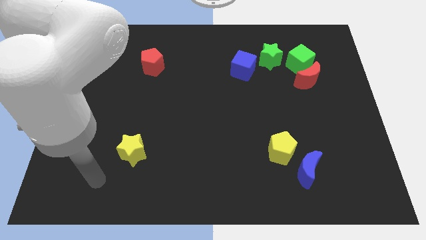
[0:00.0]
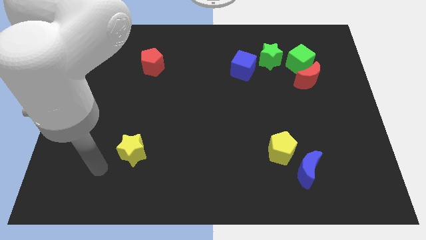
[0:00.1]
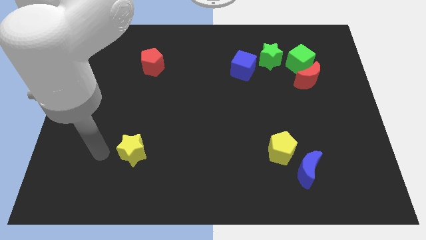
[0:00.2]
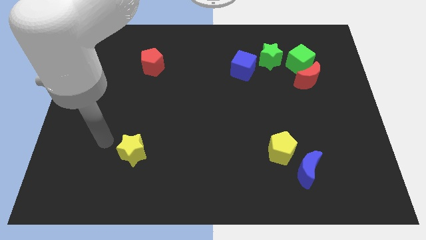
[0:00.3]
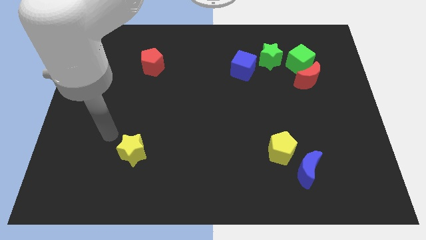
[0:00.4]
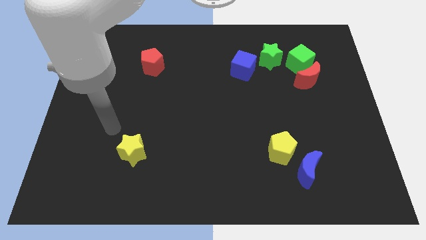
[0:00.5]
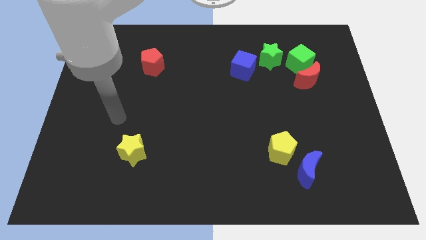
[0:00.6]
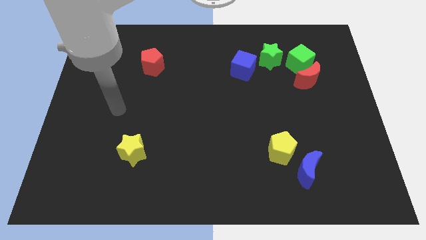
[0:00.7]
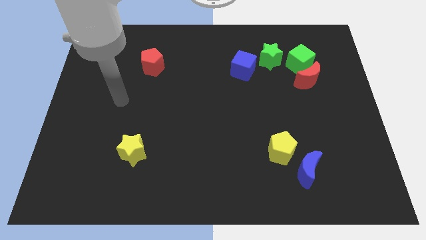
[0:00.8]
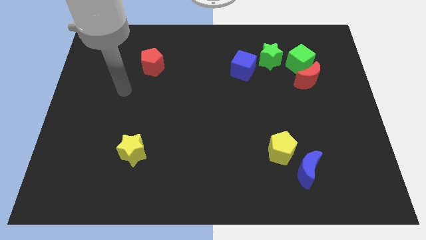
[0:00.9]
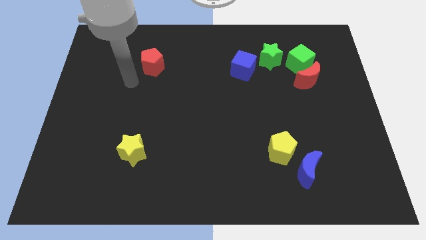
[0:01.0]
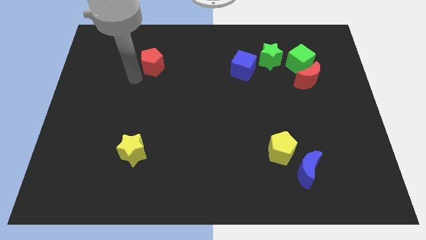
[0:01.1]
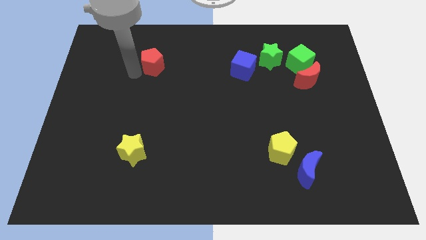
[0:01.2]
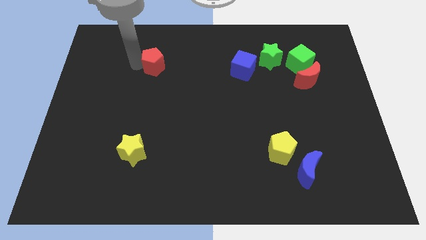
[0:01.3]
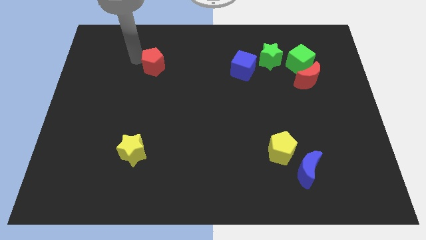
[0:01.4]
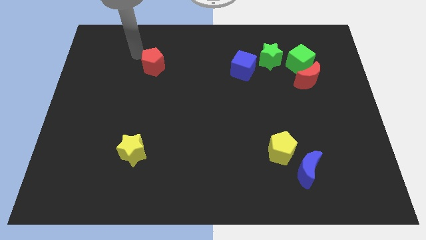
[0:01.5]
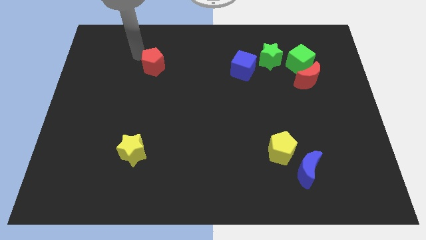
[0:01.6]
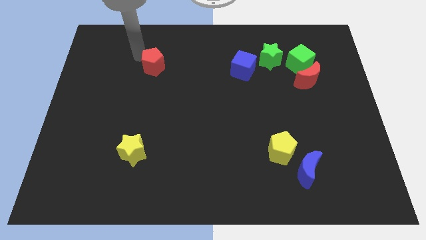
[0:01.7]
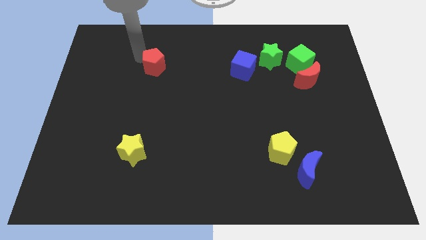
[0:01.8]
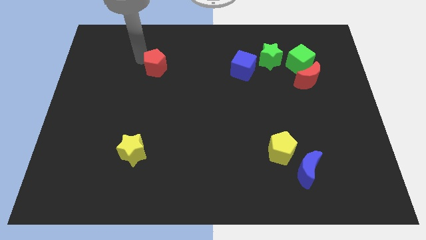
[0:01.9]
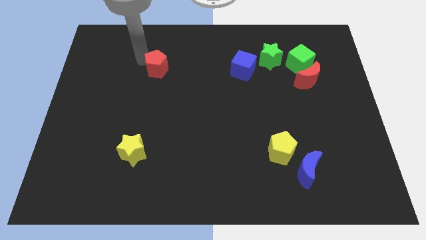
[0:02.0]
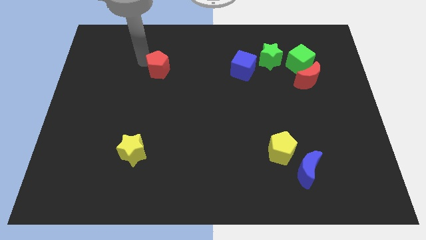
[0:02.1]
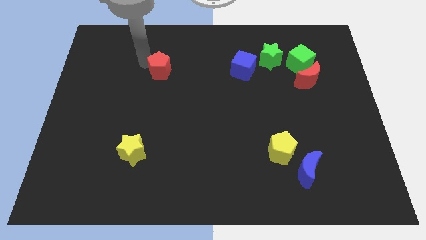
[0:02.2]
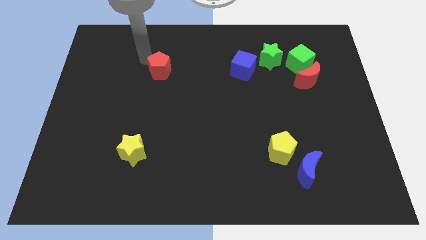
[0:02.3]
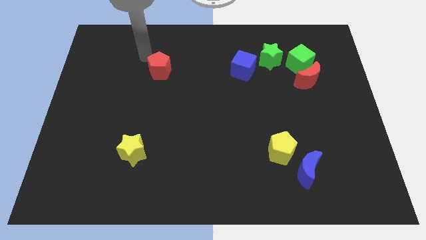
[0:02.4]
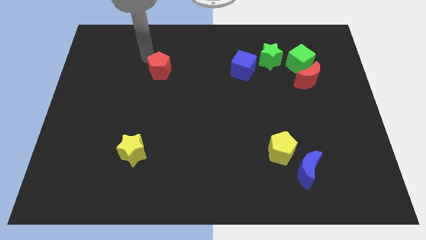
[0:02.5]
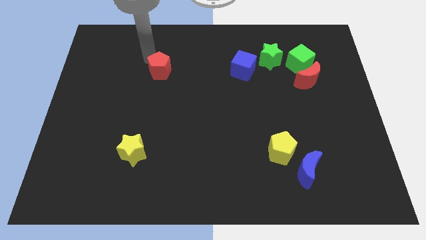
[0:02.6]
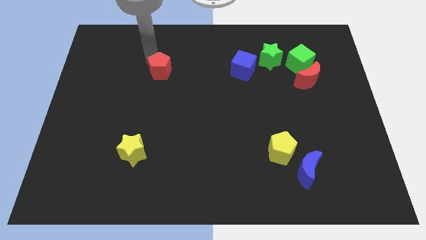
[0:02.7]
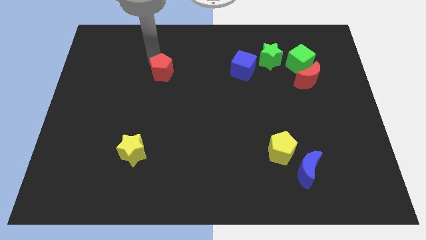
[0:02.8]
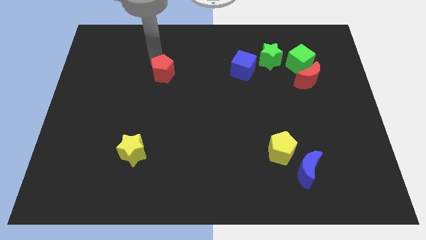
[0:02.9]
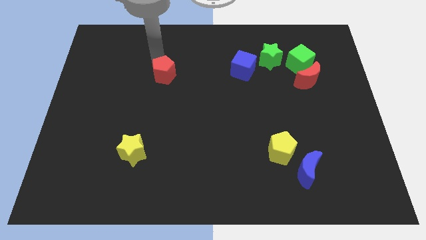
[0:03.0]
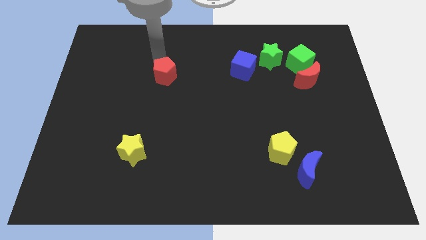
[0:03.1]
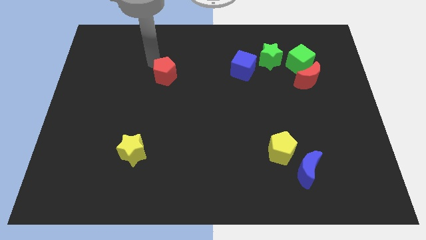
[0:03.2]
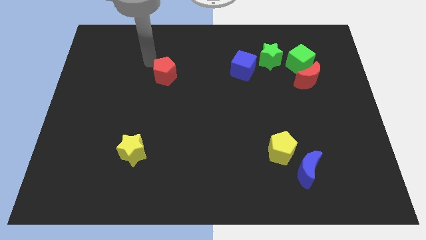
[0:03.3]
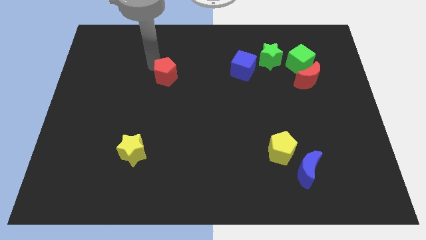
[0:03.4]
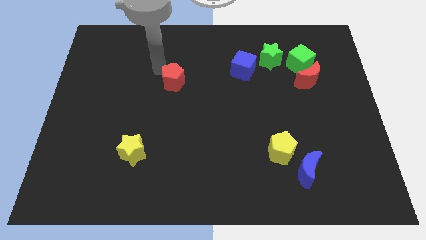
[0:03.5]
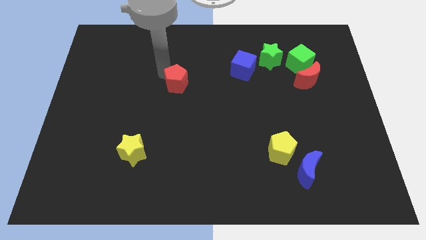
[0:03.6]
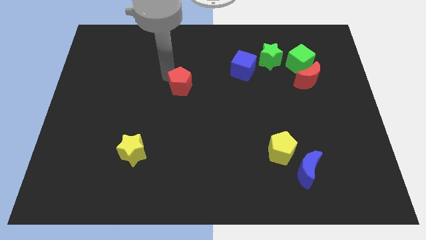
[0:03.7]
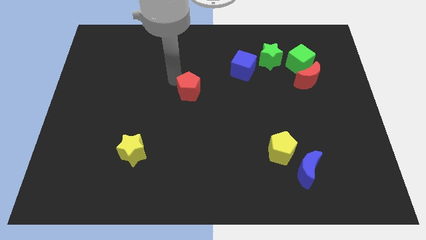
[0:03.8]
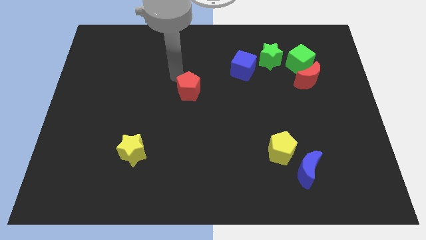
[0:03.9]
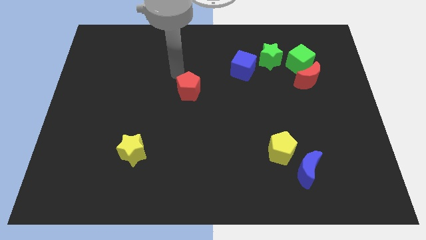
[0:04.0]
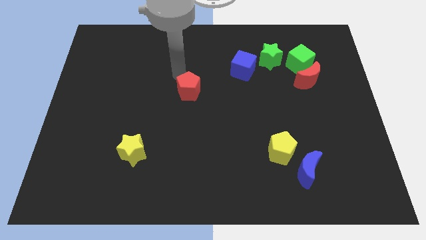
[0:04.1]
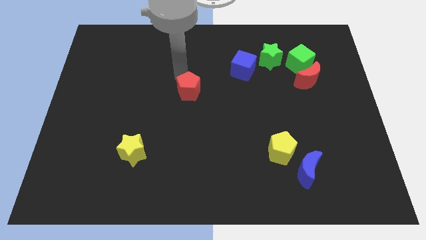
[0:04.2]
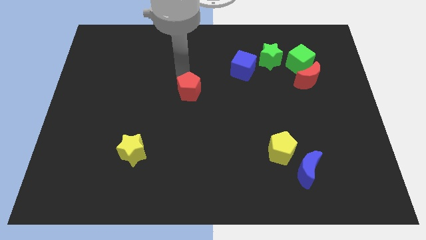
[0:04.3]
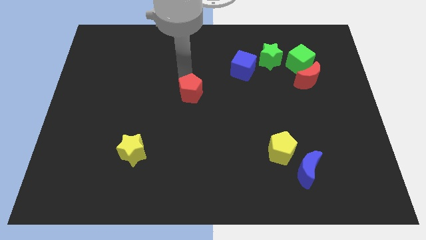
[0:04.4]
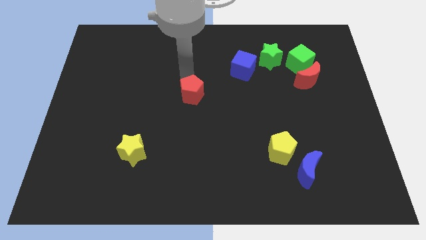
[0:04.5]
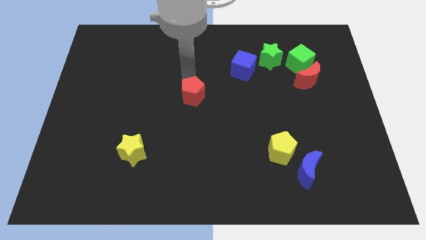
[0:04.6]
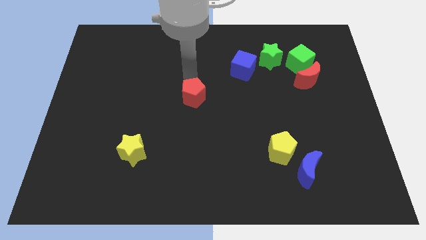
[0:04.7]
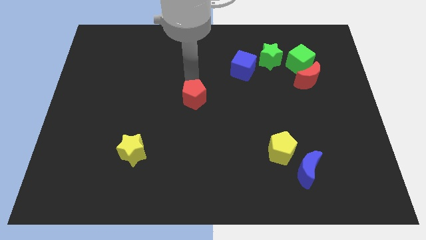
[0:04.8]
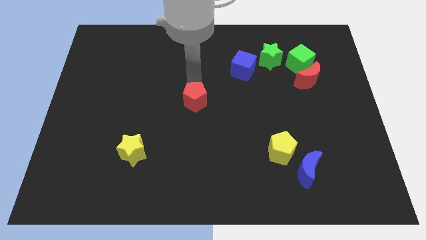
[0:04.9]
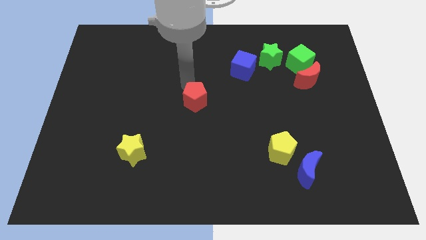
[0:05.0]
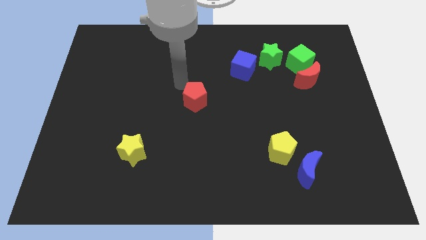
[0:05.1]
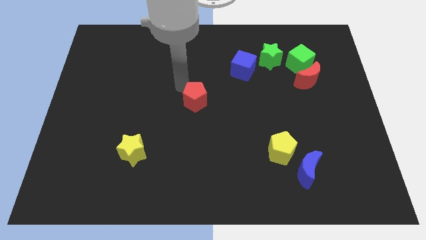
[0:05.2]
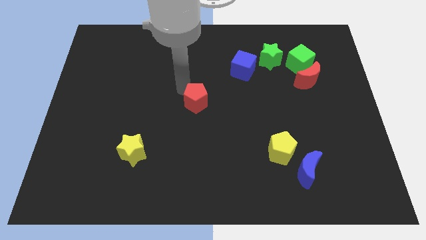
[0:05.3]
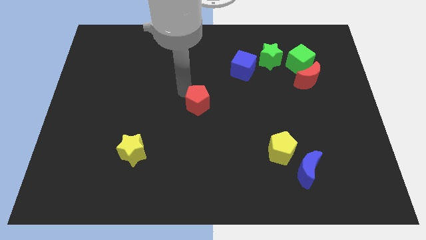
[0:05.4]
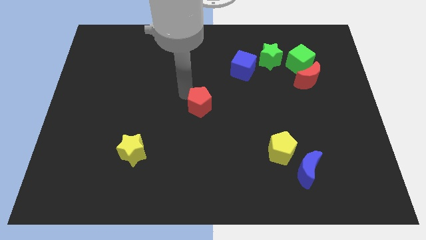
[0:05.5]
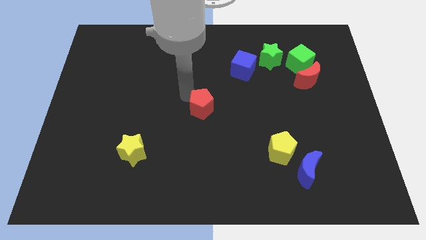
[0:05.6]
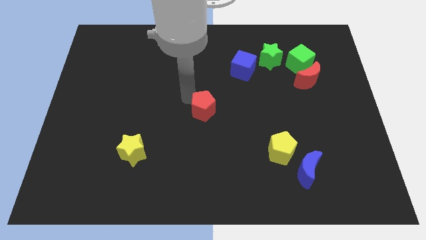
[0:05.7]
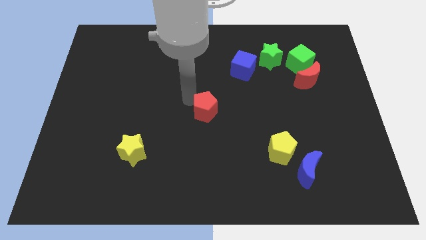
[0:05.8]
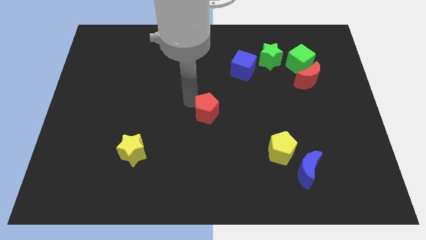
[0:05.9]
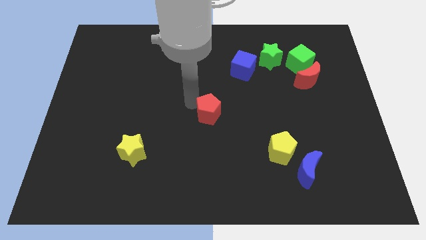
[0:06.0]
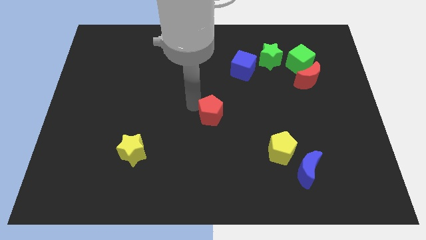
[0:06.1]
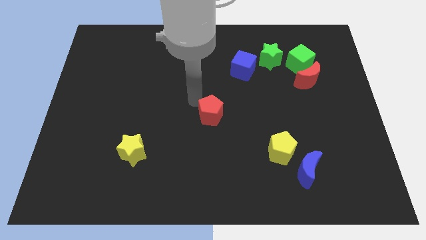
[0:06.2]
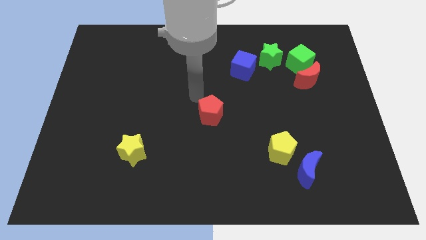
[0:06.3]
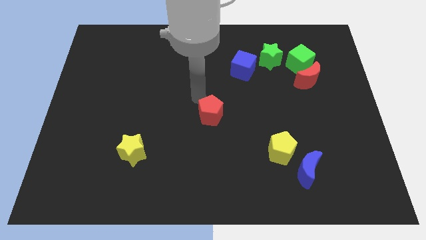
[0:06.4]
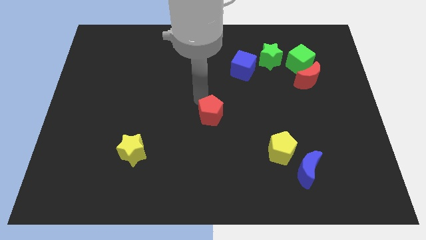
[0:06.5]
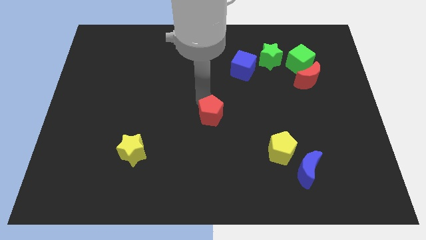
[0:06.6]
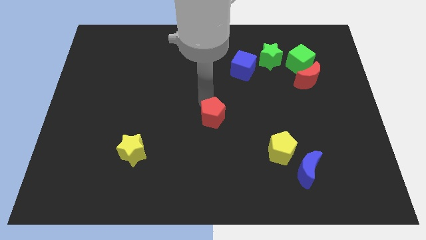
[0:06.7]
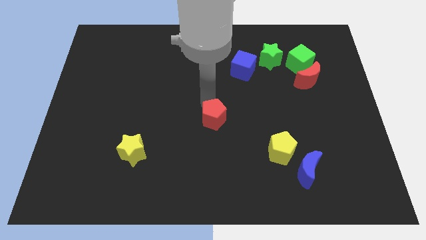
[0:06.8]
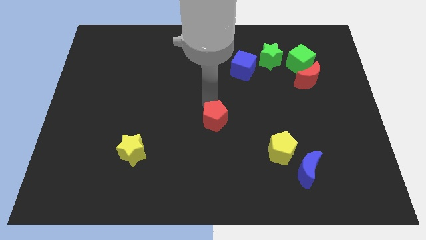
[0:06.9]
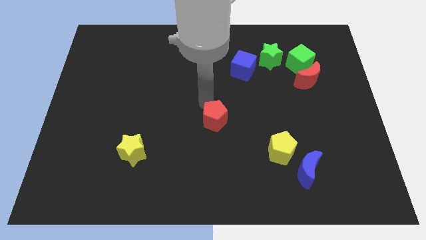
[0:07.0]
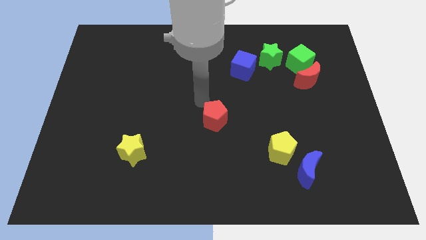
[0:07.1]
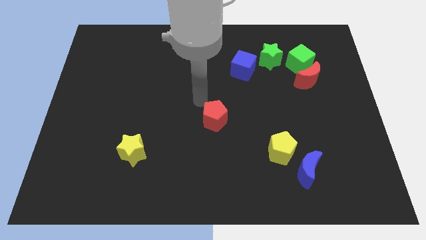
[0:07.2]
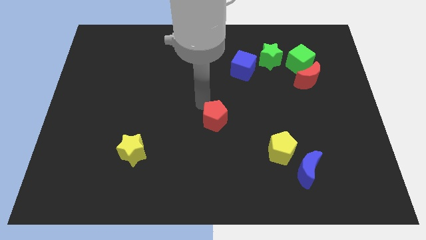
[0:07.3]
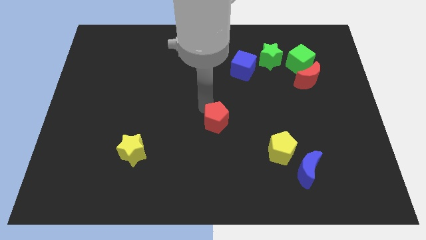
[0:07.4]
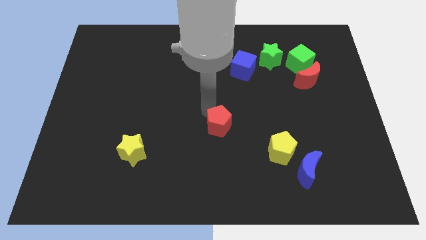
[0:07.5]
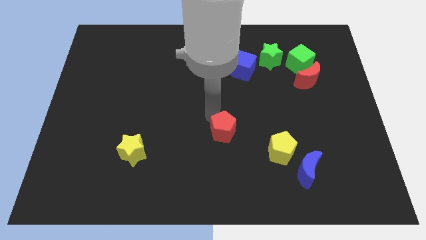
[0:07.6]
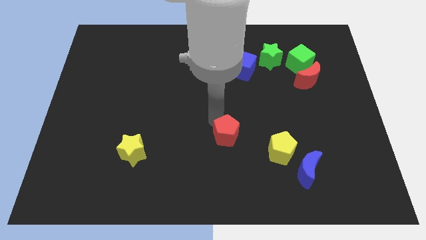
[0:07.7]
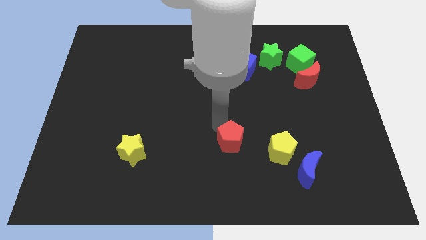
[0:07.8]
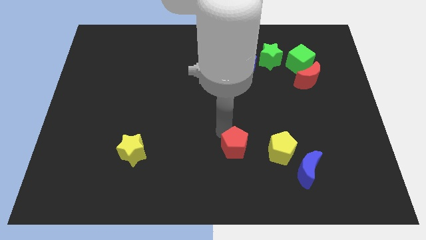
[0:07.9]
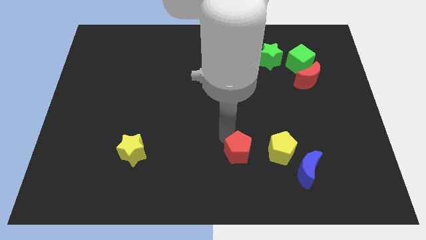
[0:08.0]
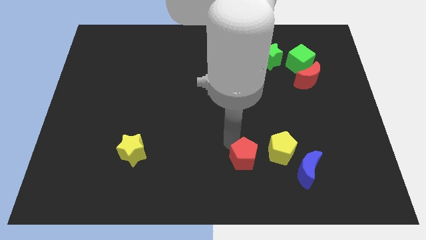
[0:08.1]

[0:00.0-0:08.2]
push the red pentagon diagonally down and to the left of the yellow pentagon
